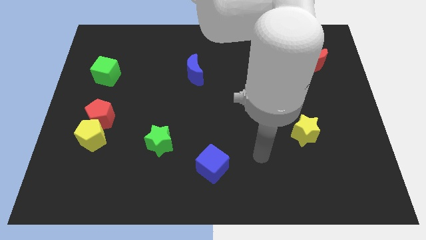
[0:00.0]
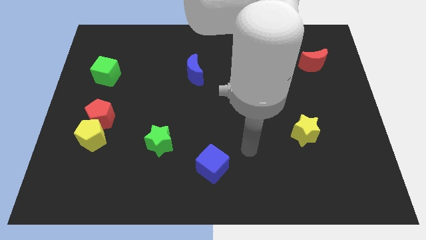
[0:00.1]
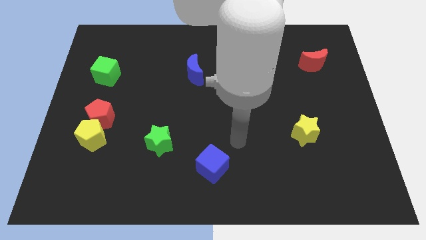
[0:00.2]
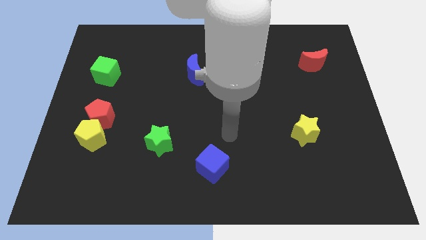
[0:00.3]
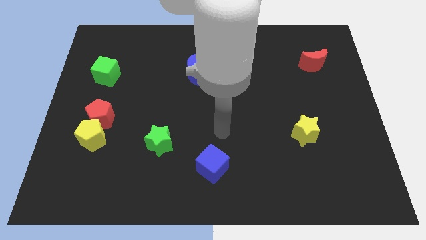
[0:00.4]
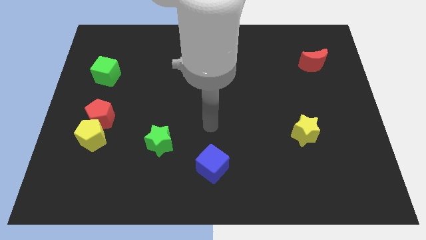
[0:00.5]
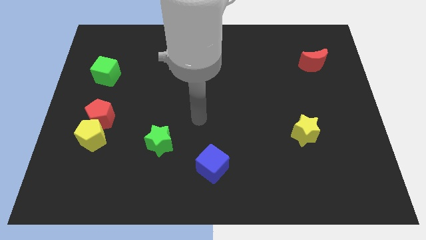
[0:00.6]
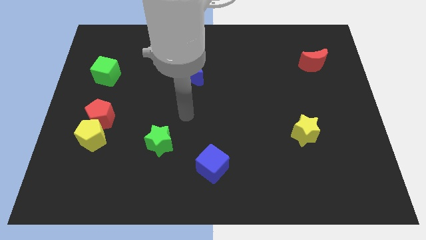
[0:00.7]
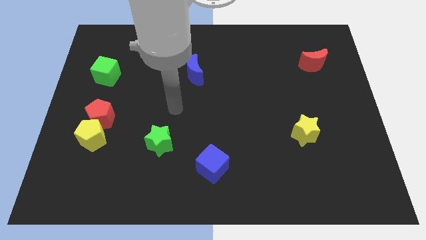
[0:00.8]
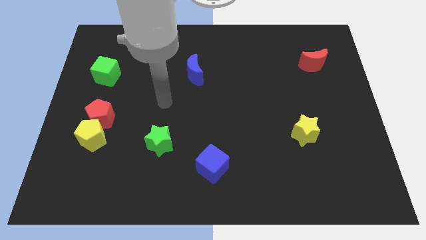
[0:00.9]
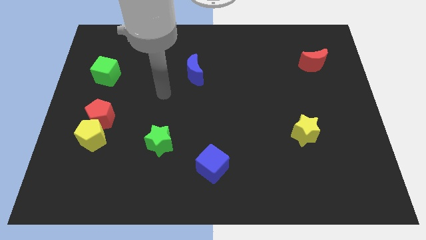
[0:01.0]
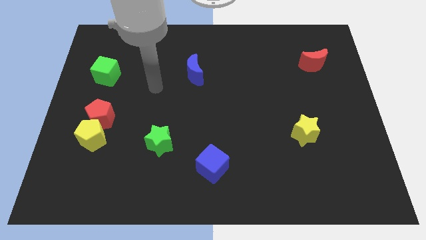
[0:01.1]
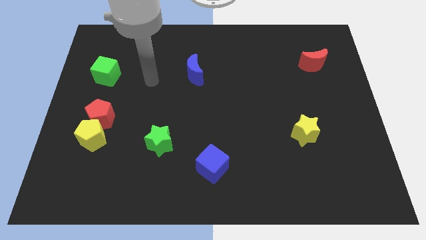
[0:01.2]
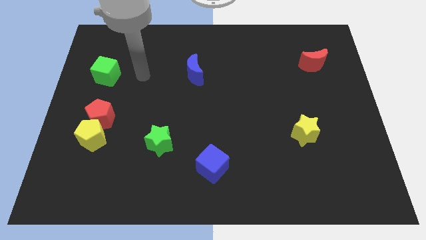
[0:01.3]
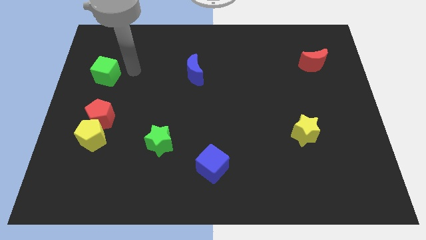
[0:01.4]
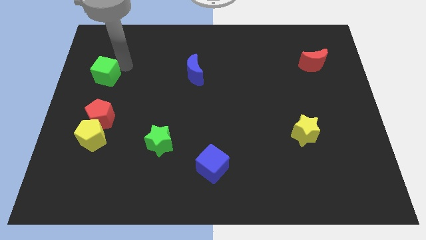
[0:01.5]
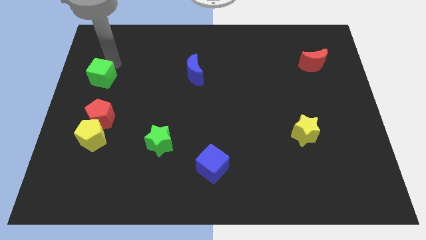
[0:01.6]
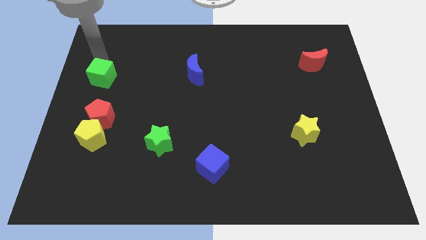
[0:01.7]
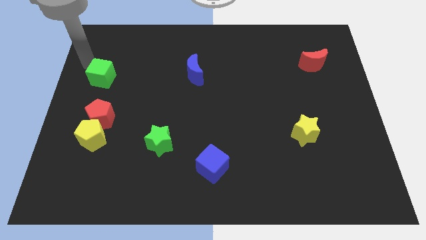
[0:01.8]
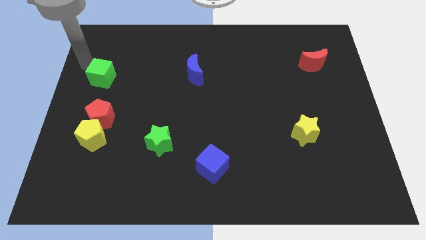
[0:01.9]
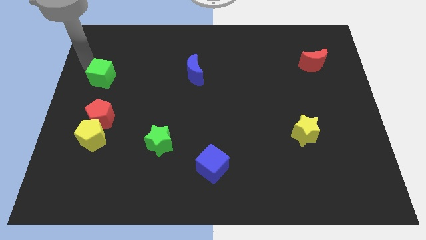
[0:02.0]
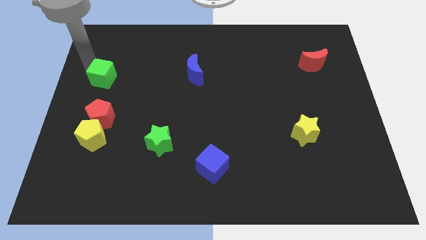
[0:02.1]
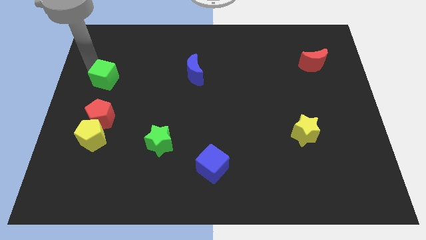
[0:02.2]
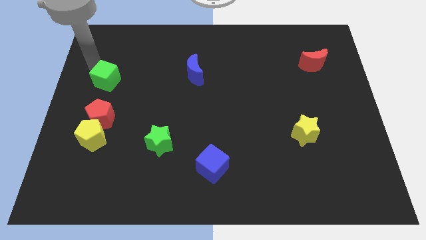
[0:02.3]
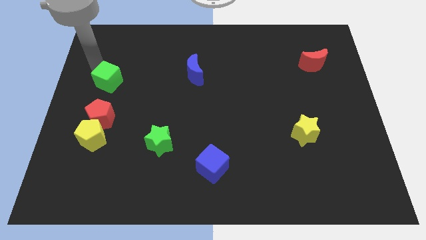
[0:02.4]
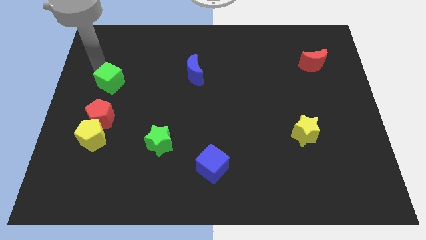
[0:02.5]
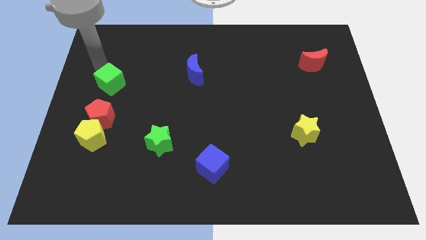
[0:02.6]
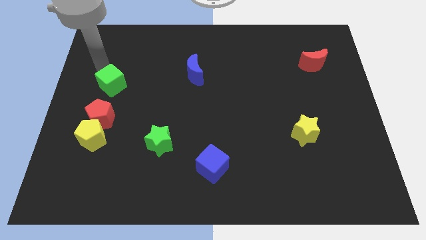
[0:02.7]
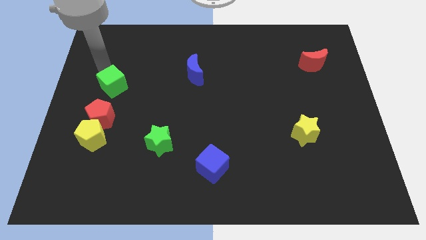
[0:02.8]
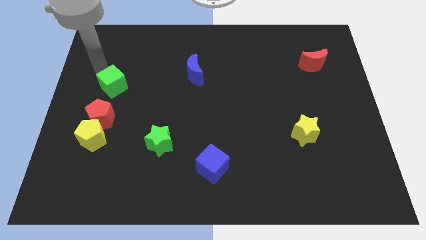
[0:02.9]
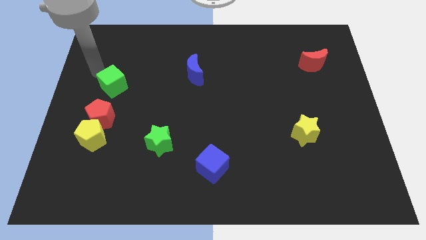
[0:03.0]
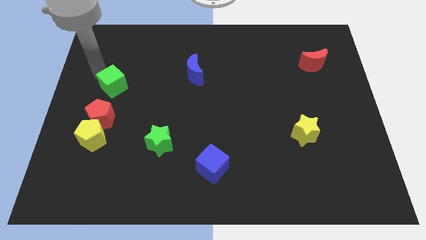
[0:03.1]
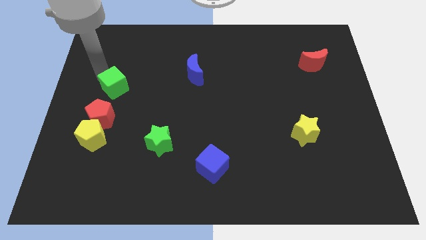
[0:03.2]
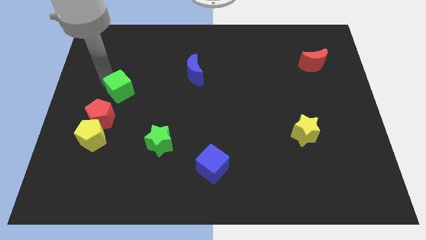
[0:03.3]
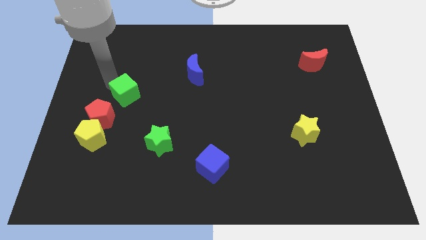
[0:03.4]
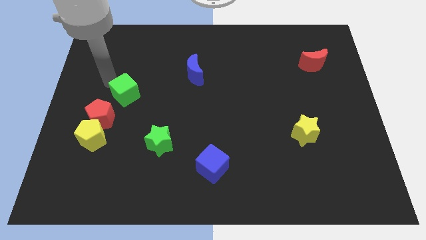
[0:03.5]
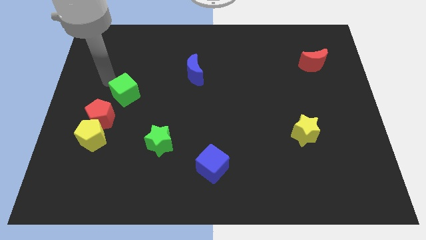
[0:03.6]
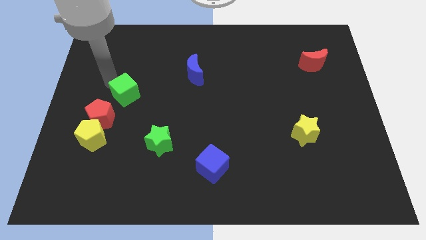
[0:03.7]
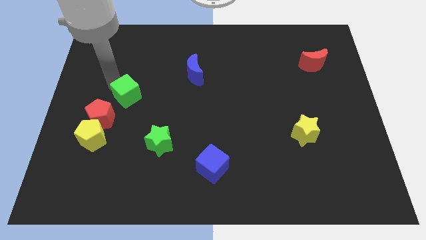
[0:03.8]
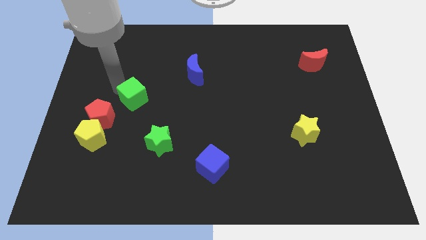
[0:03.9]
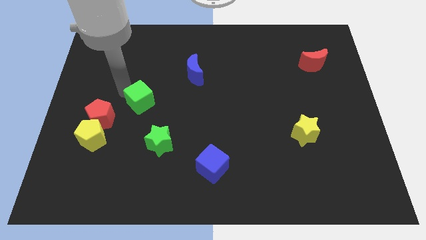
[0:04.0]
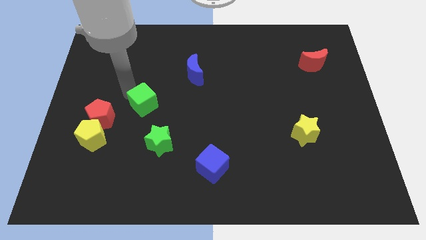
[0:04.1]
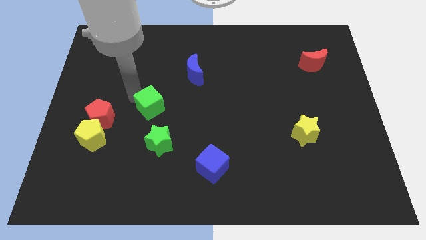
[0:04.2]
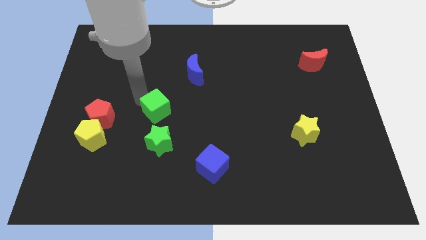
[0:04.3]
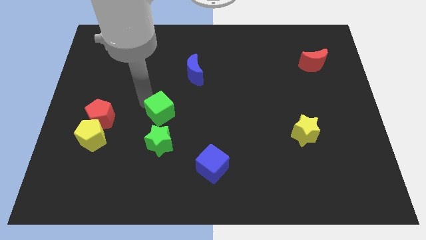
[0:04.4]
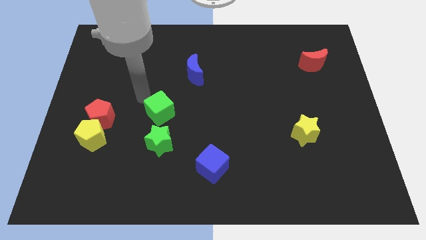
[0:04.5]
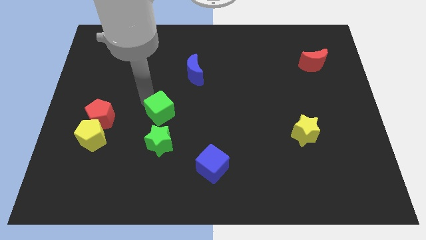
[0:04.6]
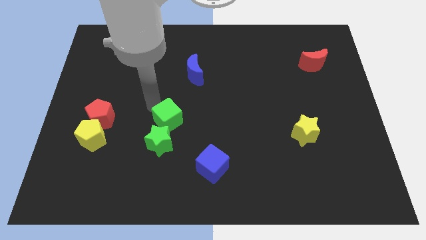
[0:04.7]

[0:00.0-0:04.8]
slide the green cube down and to the right diagonally

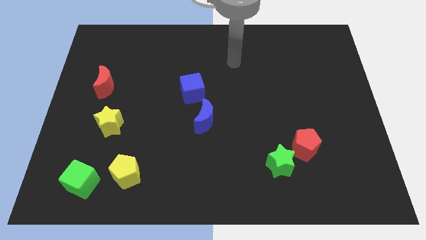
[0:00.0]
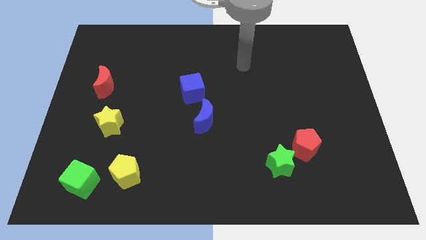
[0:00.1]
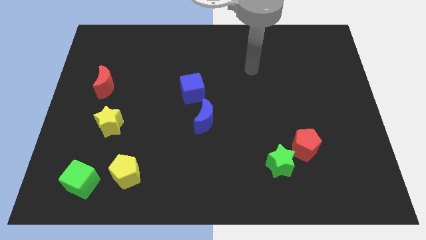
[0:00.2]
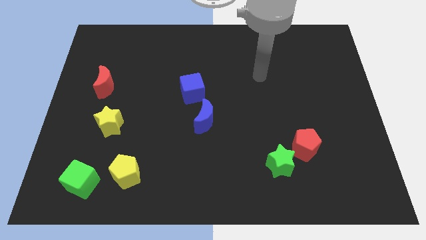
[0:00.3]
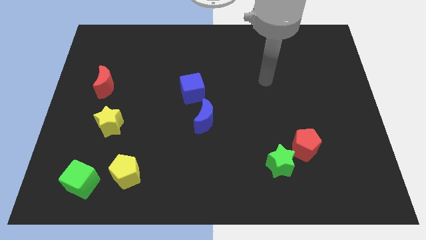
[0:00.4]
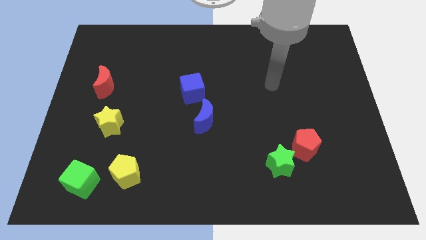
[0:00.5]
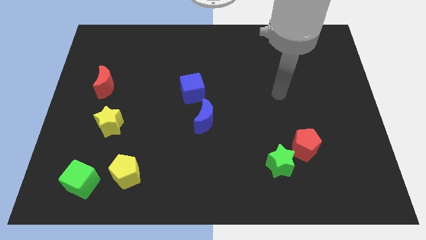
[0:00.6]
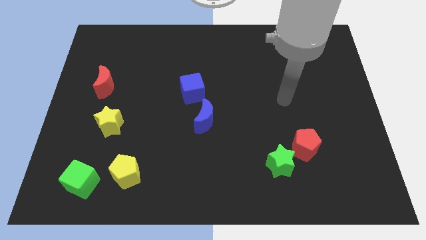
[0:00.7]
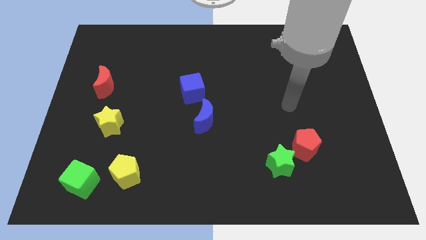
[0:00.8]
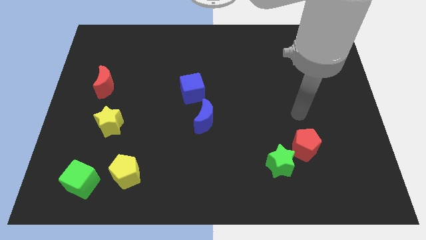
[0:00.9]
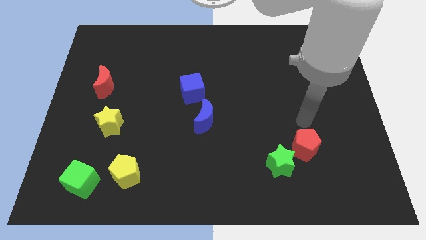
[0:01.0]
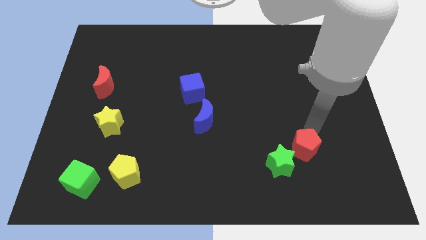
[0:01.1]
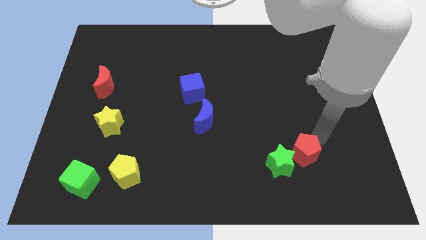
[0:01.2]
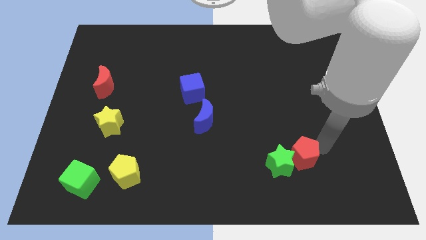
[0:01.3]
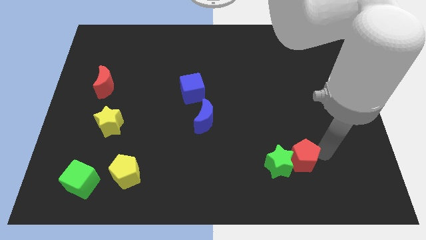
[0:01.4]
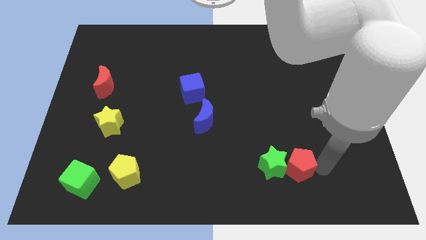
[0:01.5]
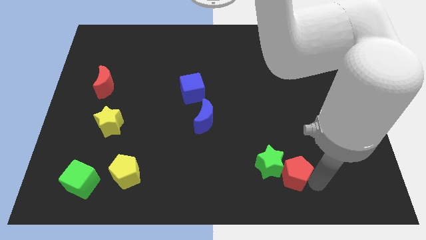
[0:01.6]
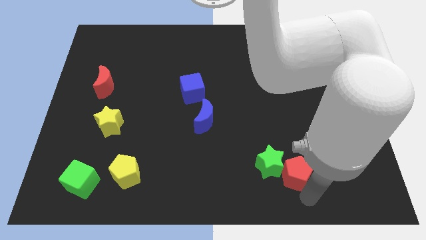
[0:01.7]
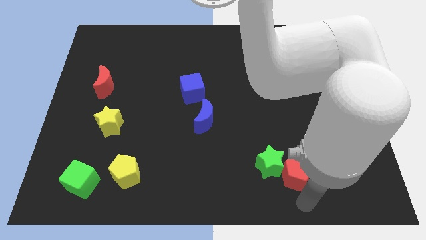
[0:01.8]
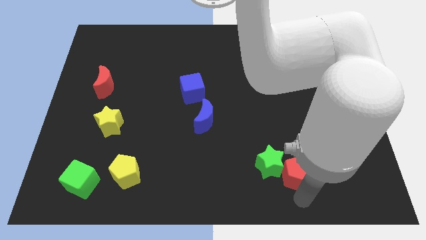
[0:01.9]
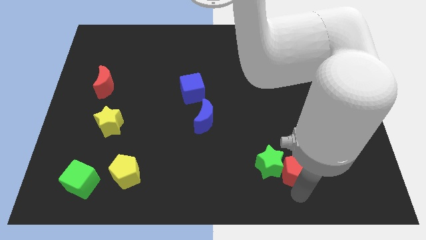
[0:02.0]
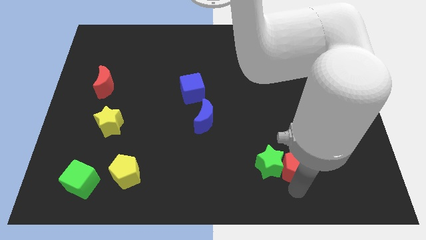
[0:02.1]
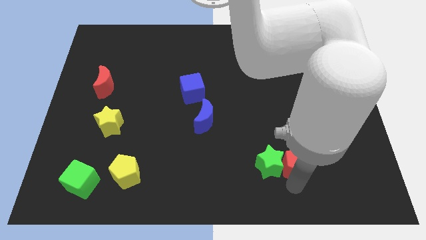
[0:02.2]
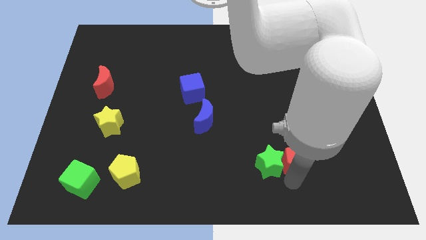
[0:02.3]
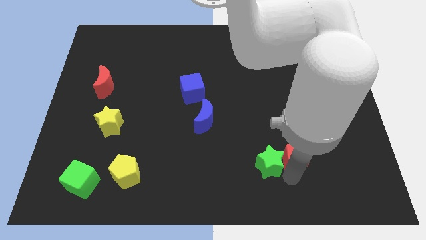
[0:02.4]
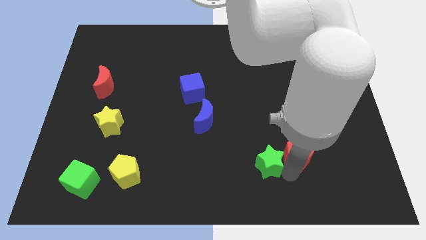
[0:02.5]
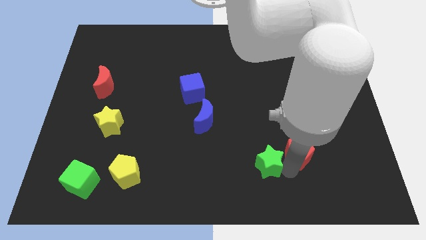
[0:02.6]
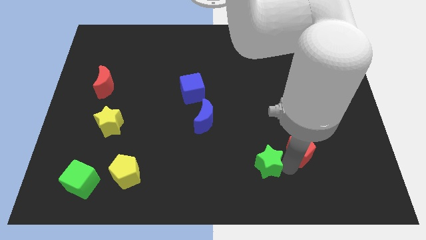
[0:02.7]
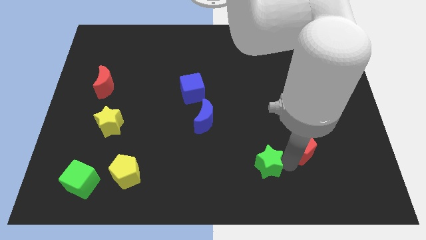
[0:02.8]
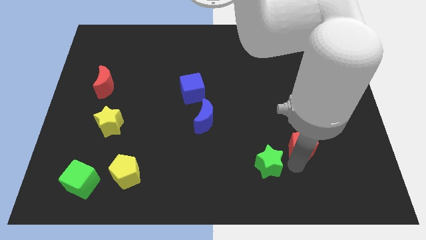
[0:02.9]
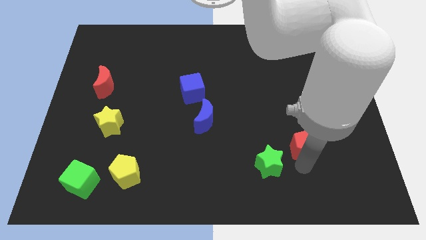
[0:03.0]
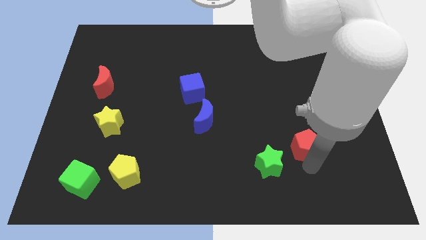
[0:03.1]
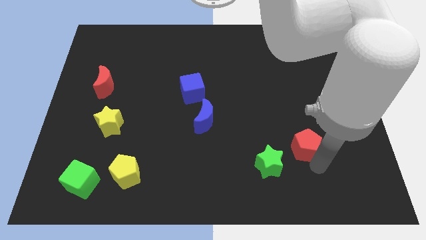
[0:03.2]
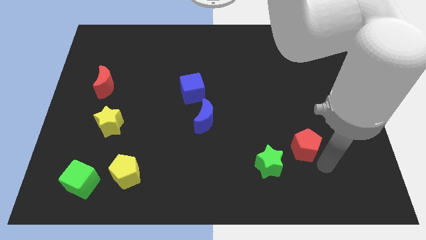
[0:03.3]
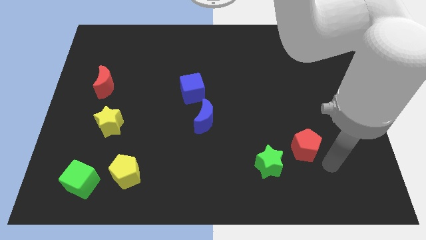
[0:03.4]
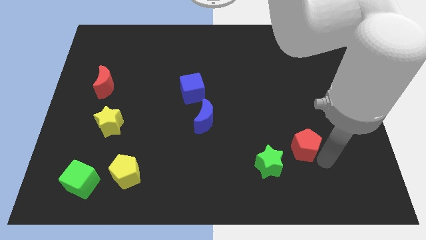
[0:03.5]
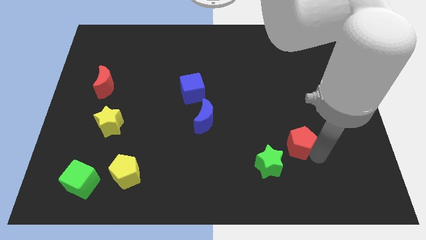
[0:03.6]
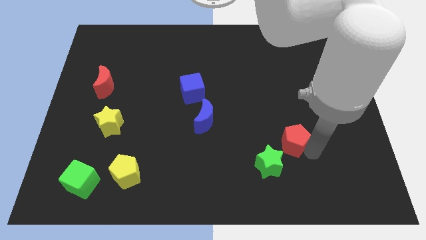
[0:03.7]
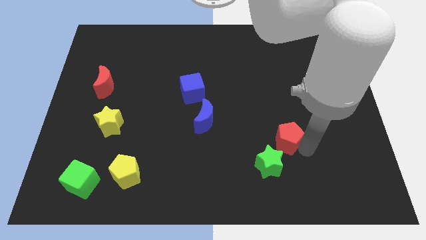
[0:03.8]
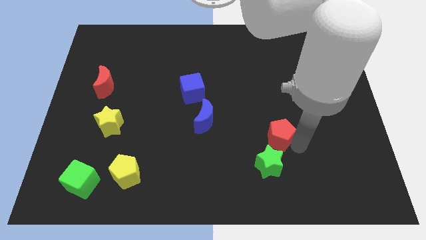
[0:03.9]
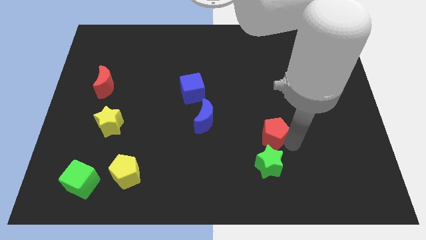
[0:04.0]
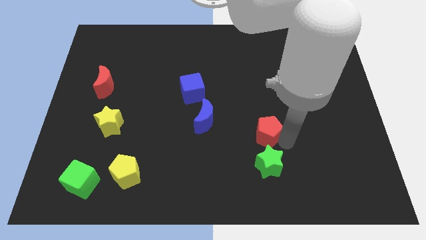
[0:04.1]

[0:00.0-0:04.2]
slide the red pentagon slightly up and left diagonally
